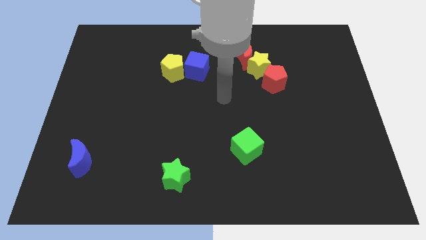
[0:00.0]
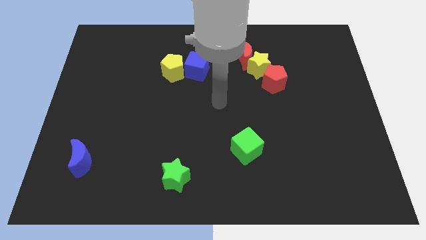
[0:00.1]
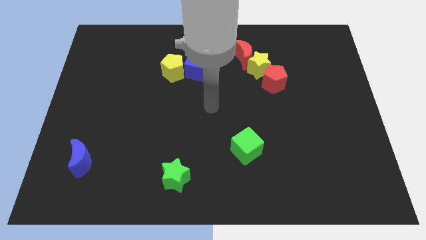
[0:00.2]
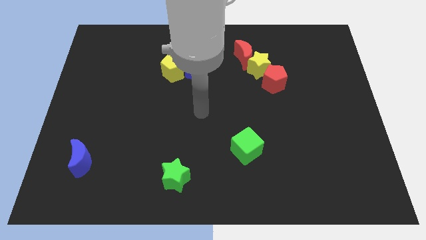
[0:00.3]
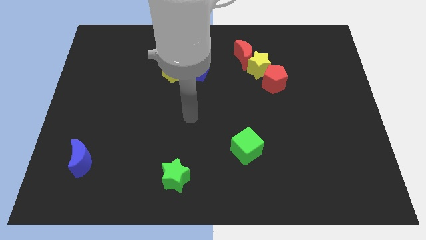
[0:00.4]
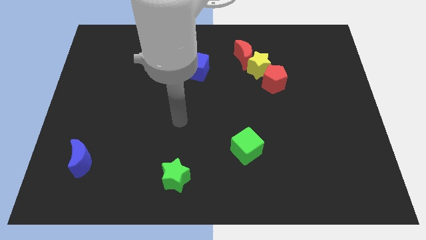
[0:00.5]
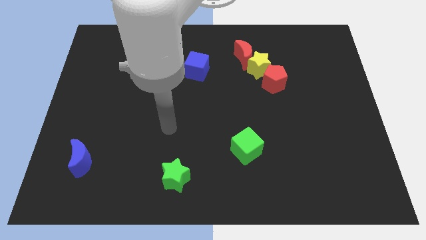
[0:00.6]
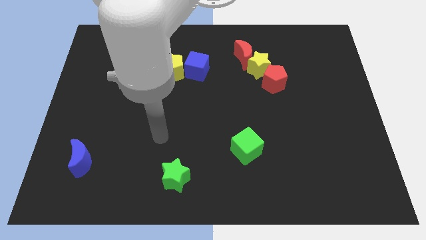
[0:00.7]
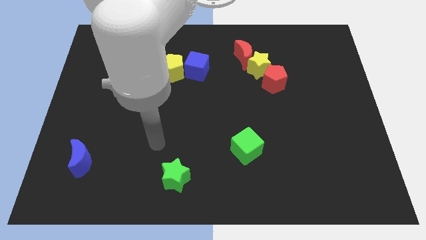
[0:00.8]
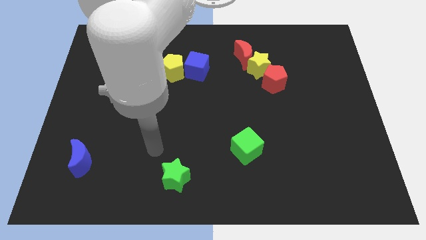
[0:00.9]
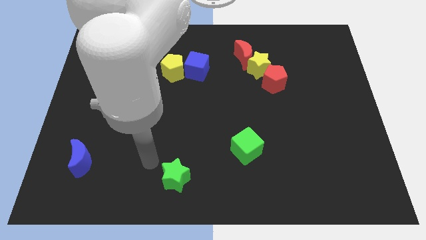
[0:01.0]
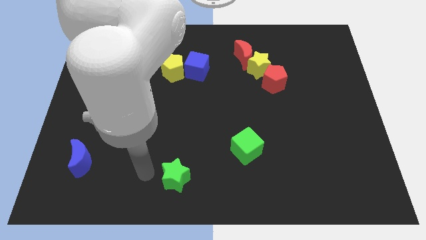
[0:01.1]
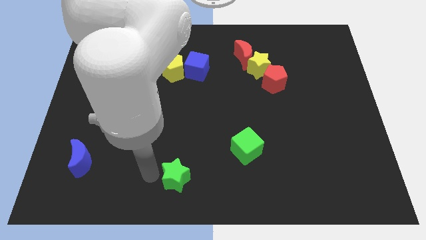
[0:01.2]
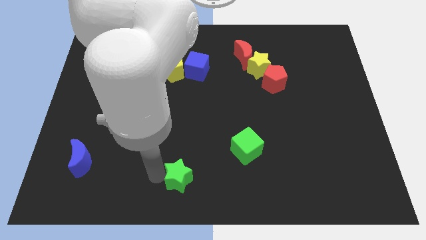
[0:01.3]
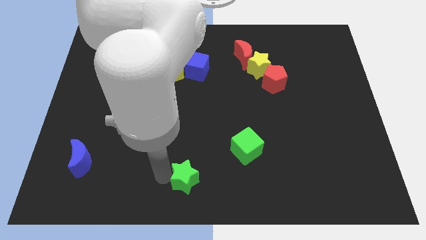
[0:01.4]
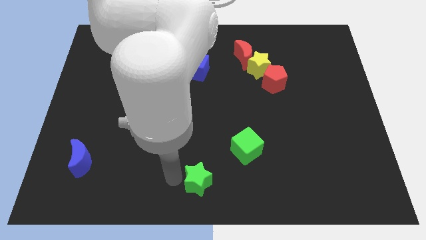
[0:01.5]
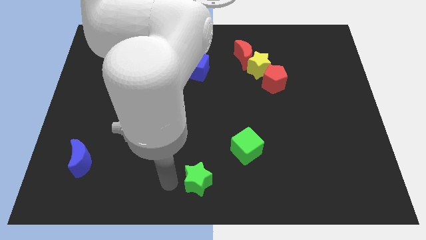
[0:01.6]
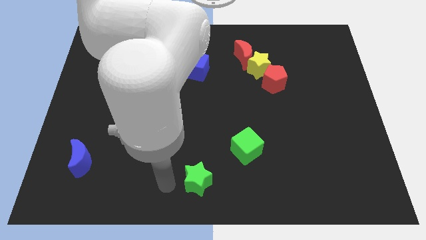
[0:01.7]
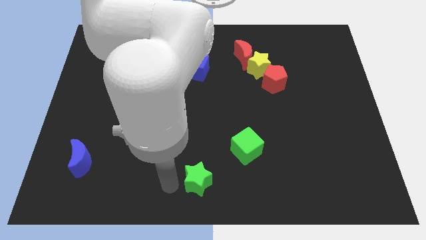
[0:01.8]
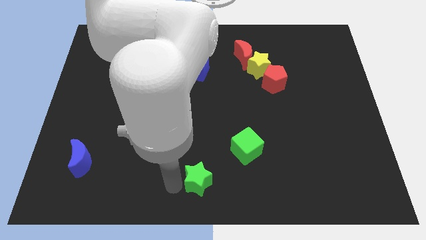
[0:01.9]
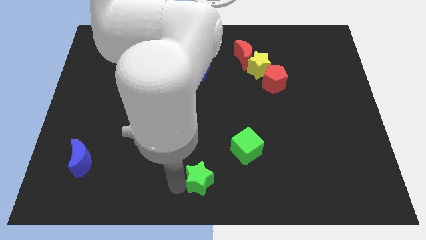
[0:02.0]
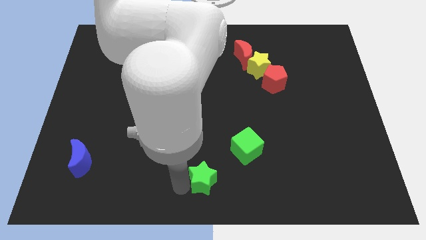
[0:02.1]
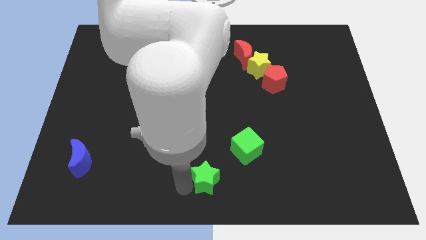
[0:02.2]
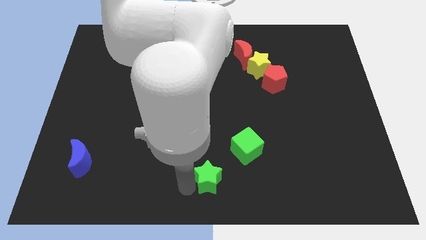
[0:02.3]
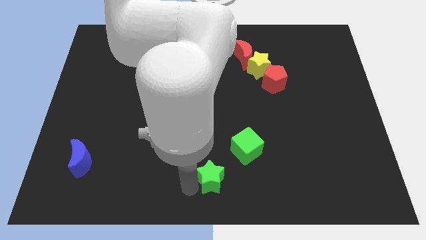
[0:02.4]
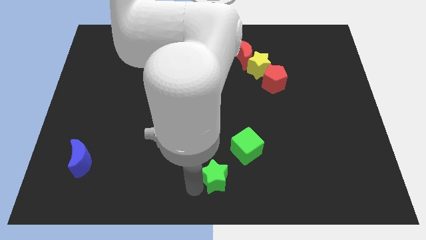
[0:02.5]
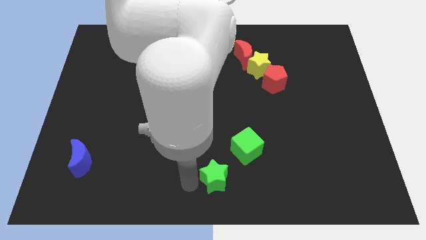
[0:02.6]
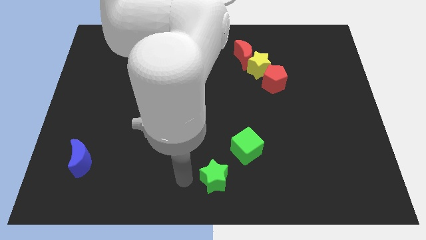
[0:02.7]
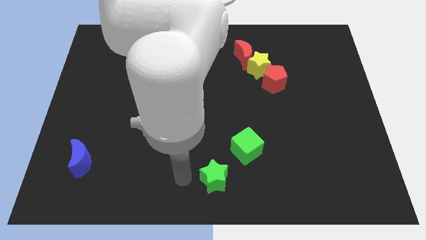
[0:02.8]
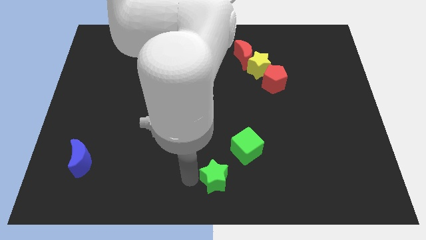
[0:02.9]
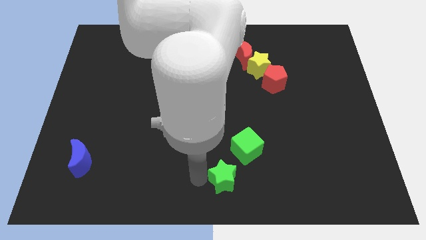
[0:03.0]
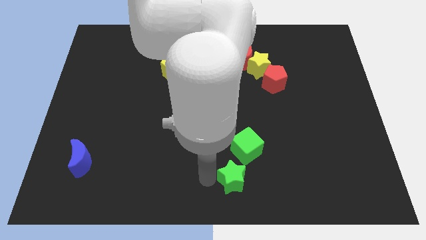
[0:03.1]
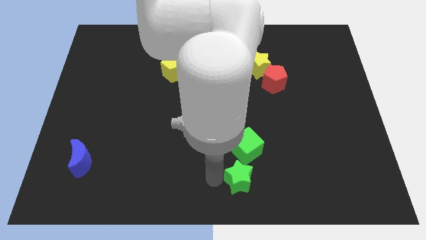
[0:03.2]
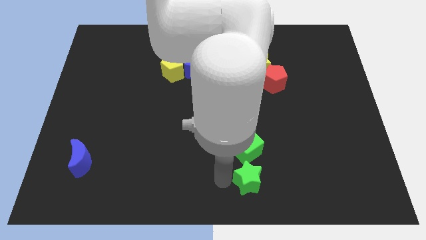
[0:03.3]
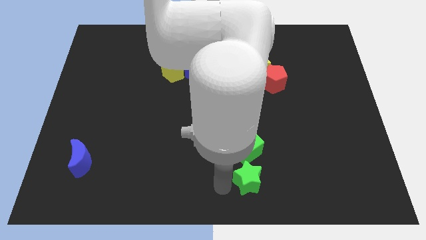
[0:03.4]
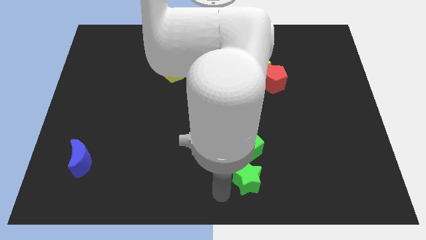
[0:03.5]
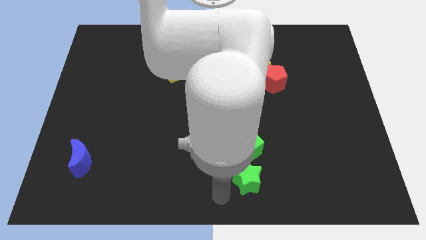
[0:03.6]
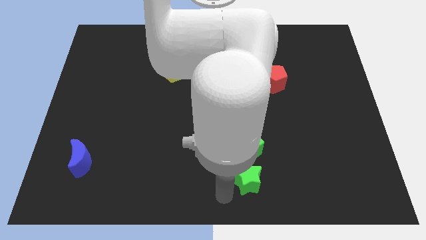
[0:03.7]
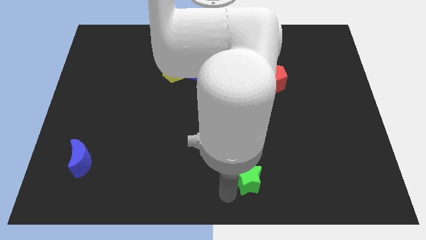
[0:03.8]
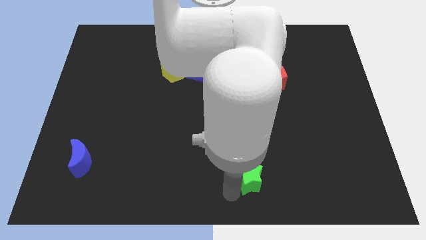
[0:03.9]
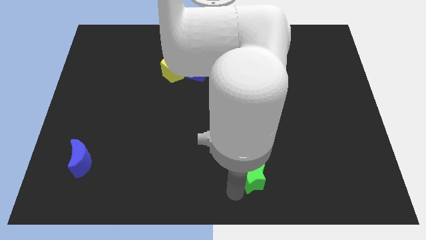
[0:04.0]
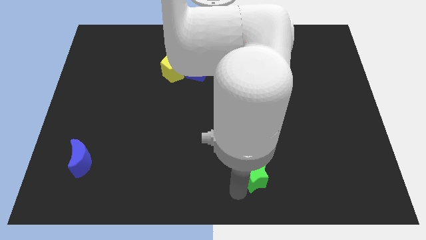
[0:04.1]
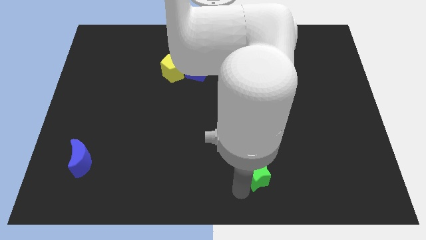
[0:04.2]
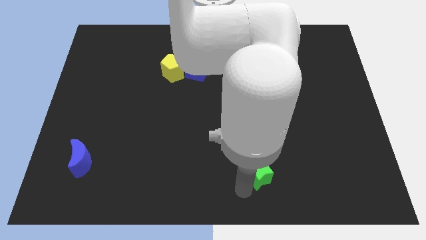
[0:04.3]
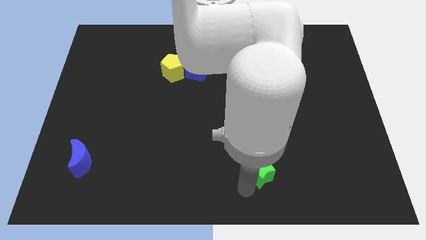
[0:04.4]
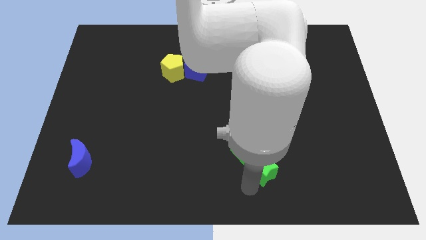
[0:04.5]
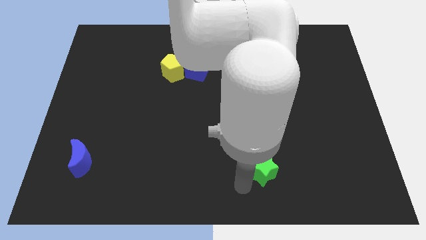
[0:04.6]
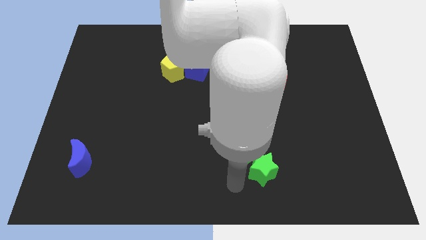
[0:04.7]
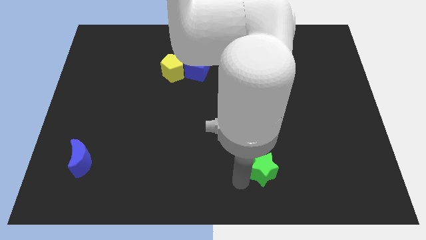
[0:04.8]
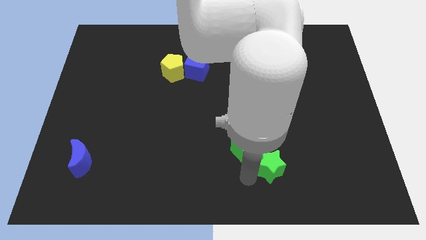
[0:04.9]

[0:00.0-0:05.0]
move the green star to the right side of the green cube

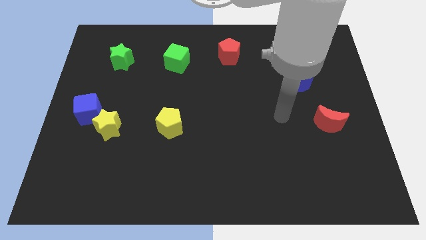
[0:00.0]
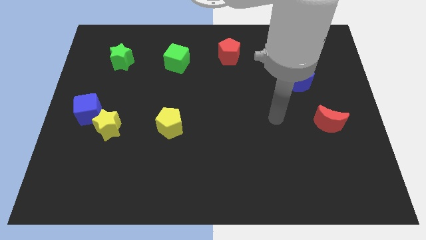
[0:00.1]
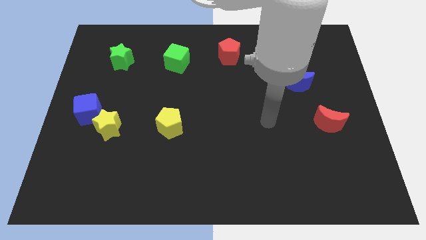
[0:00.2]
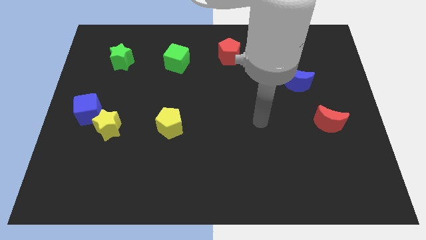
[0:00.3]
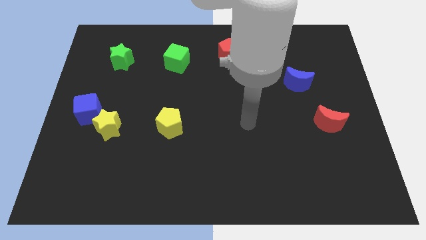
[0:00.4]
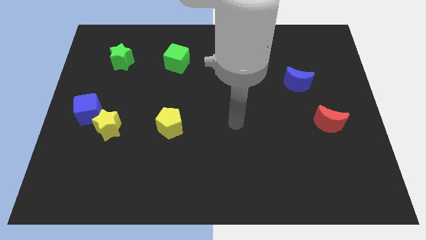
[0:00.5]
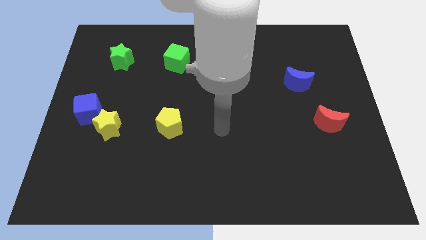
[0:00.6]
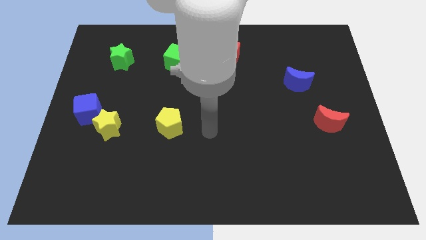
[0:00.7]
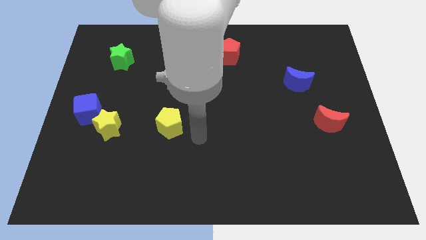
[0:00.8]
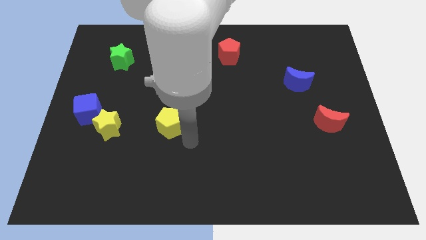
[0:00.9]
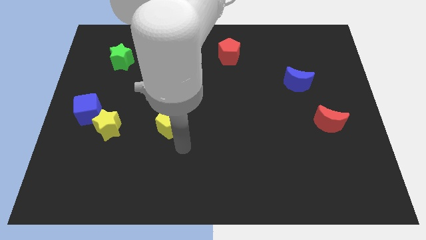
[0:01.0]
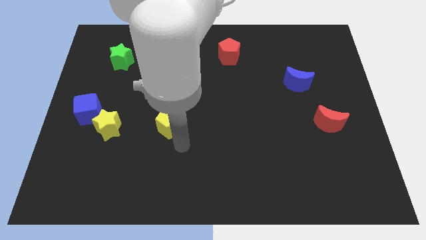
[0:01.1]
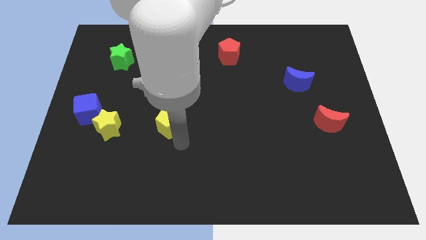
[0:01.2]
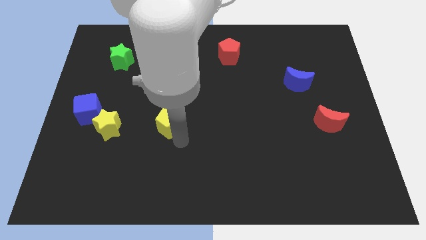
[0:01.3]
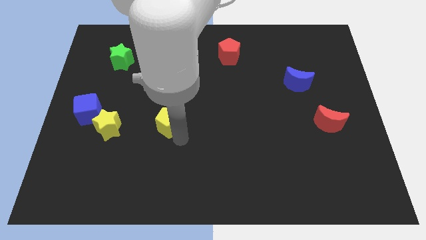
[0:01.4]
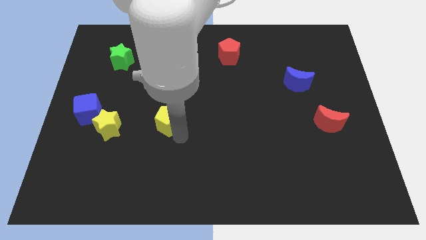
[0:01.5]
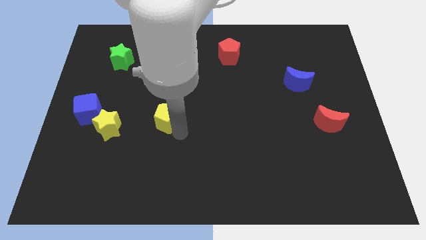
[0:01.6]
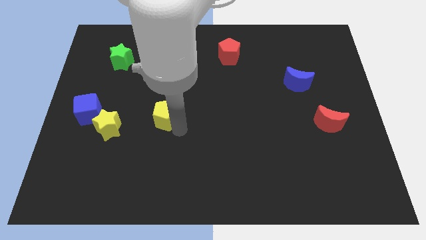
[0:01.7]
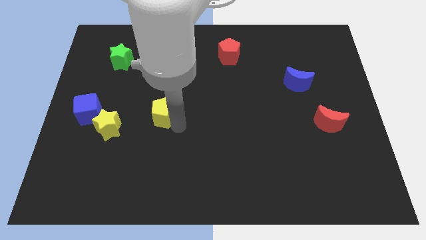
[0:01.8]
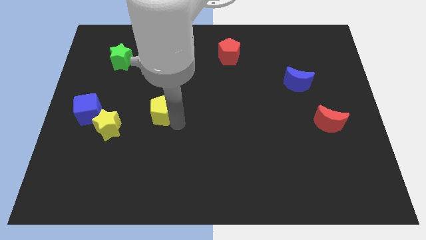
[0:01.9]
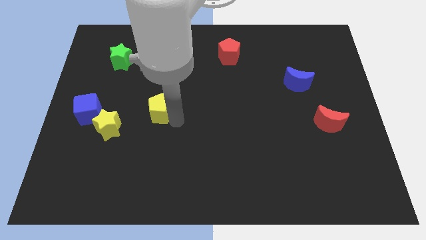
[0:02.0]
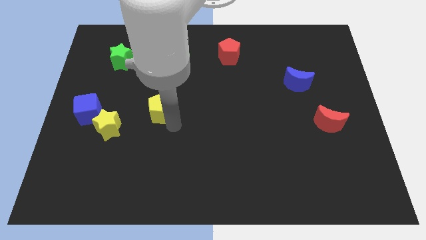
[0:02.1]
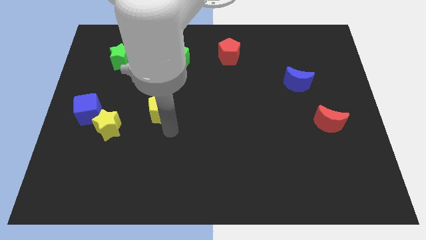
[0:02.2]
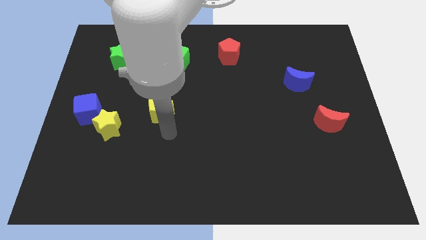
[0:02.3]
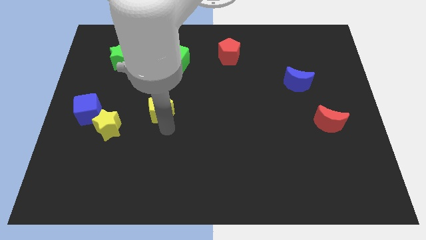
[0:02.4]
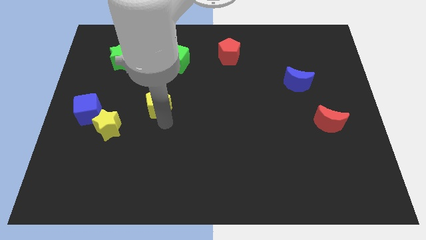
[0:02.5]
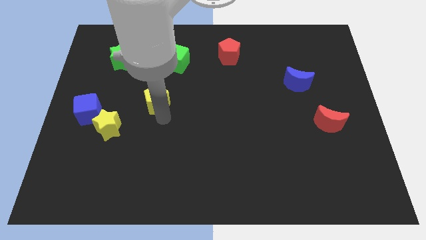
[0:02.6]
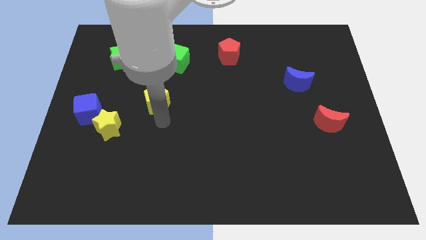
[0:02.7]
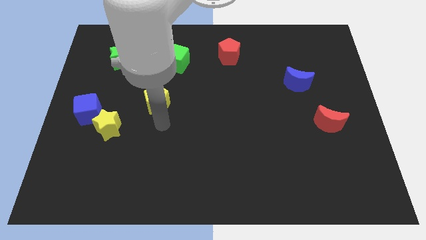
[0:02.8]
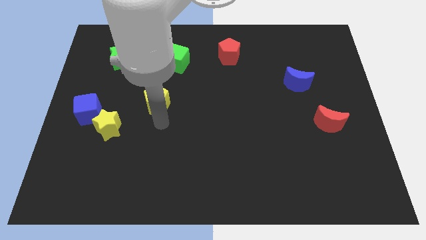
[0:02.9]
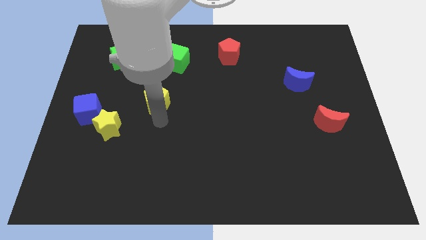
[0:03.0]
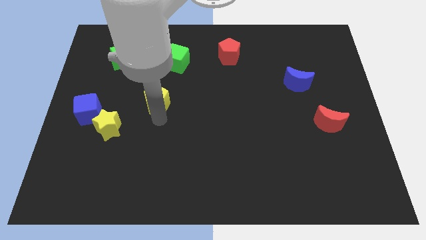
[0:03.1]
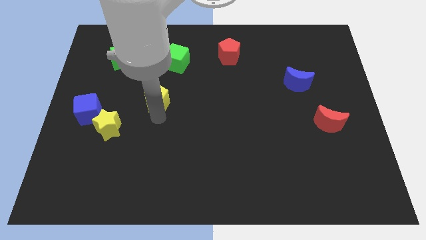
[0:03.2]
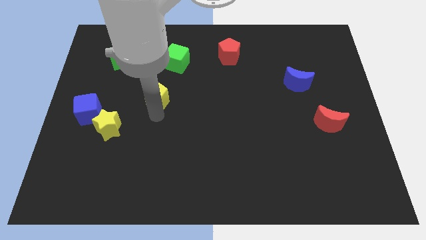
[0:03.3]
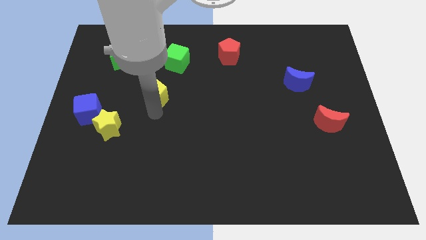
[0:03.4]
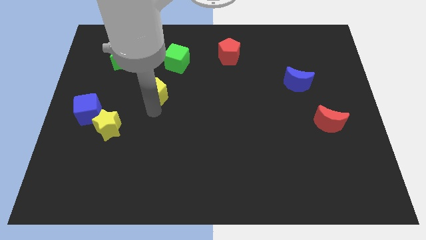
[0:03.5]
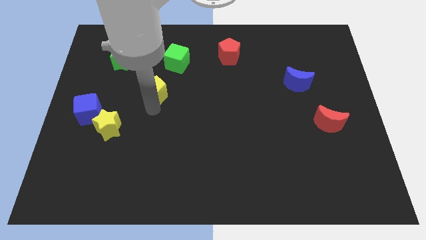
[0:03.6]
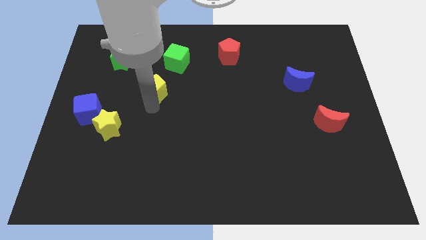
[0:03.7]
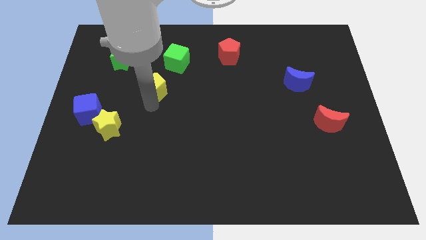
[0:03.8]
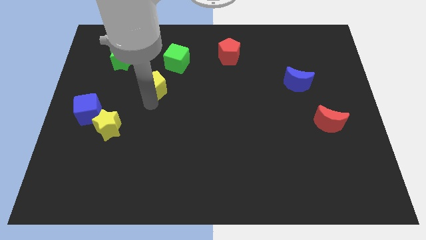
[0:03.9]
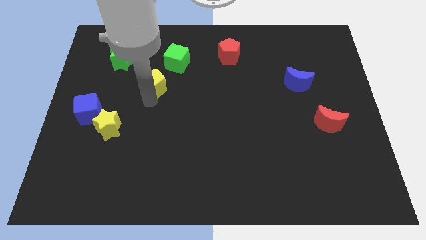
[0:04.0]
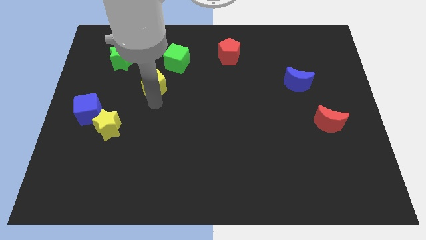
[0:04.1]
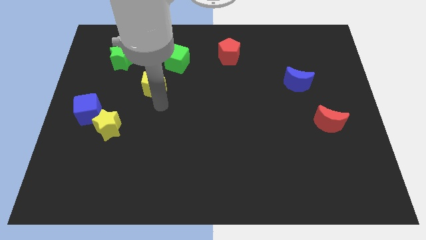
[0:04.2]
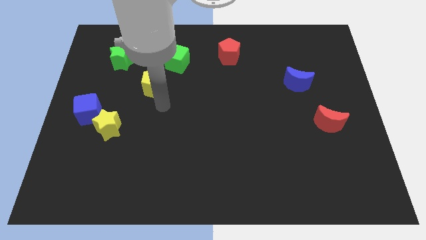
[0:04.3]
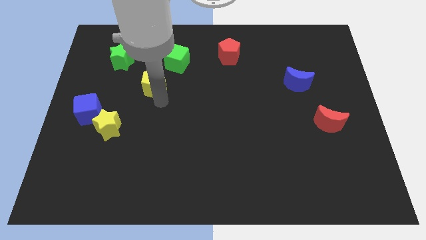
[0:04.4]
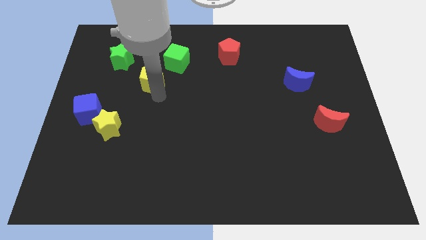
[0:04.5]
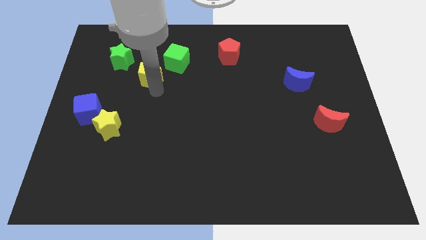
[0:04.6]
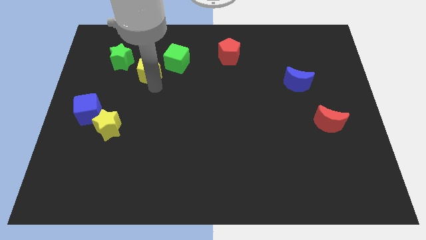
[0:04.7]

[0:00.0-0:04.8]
push the yellow pentagon to the left of the green cube
